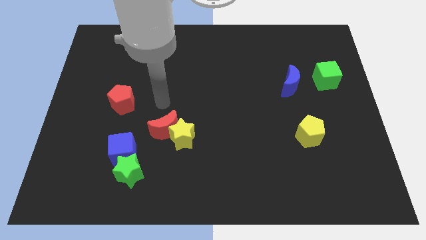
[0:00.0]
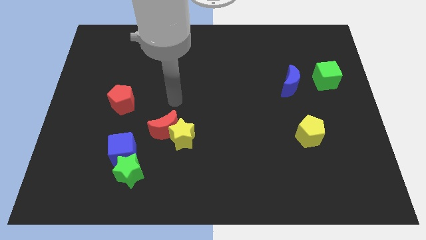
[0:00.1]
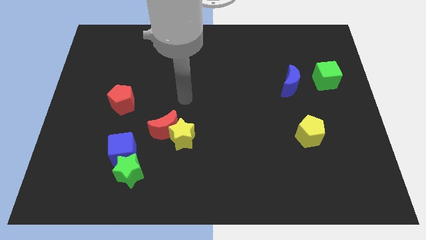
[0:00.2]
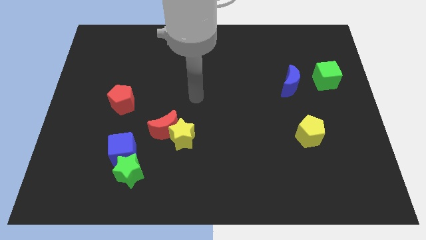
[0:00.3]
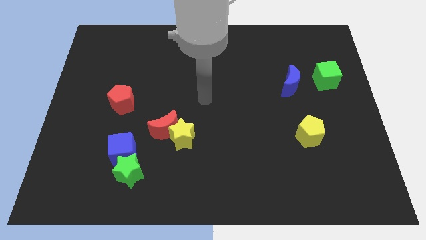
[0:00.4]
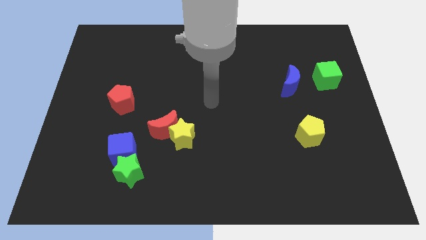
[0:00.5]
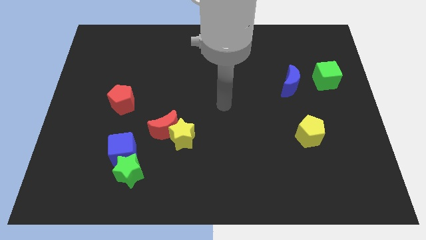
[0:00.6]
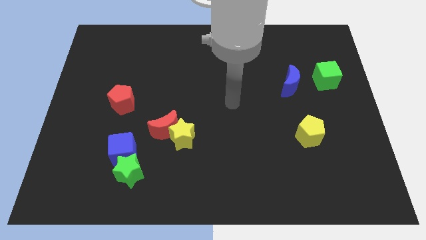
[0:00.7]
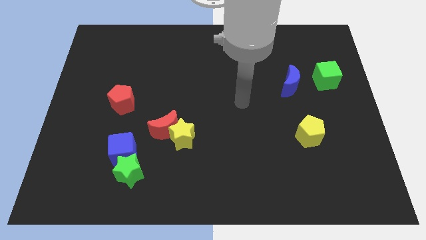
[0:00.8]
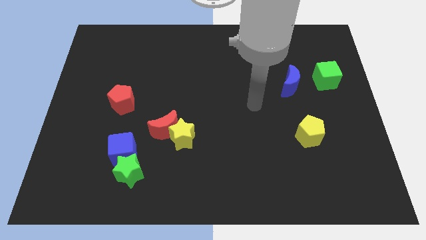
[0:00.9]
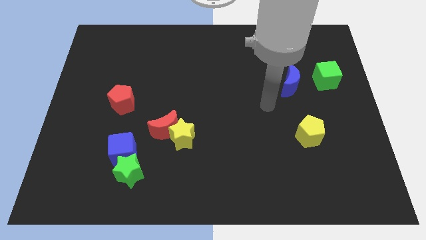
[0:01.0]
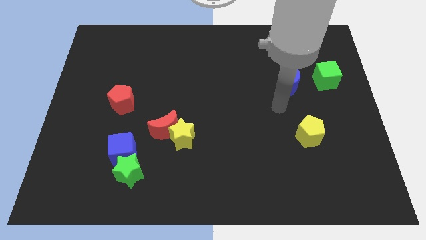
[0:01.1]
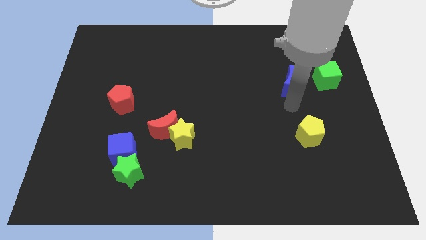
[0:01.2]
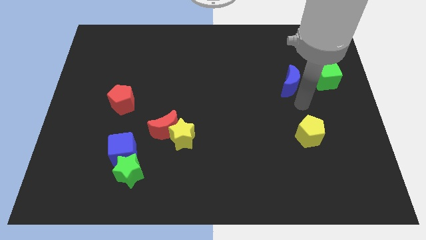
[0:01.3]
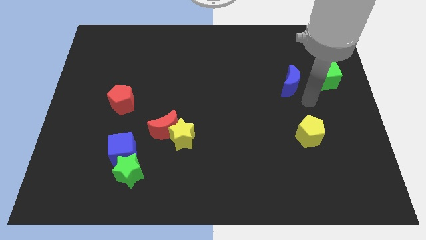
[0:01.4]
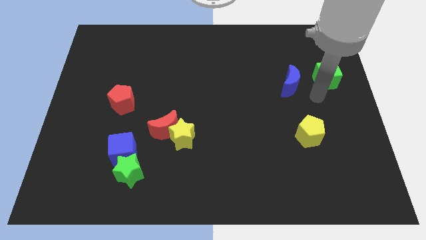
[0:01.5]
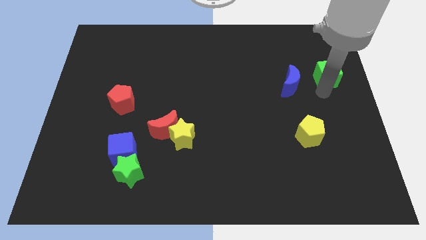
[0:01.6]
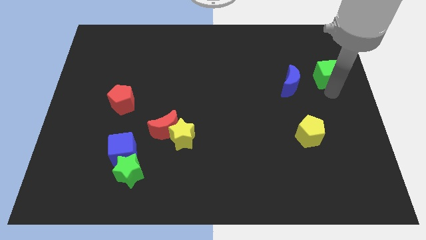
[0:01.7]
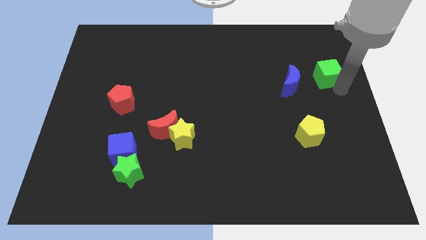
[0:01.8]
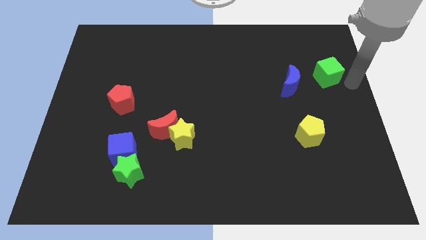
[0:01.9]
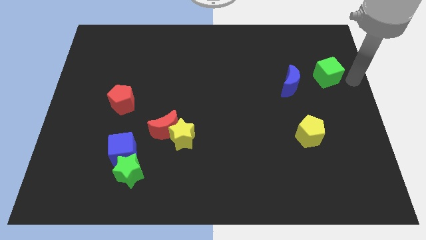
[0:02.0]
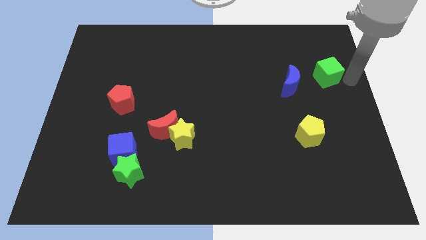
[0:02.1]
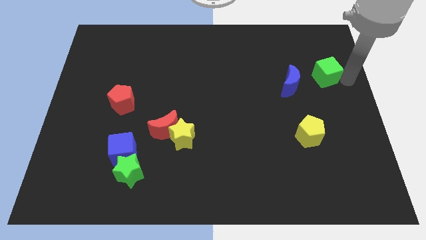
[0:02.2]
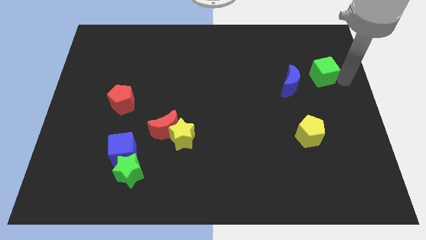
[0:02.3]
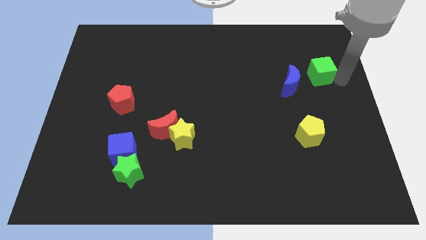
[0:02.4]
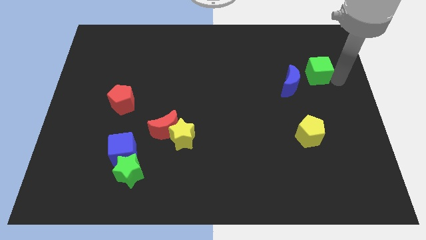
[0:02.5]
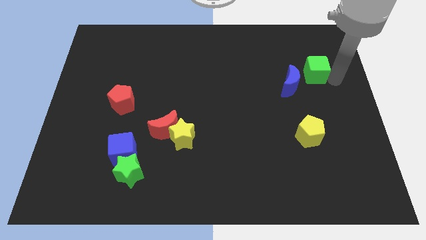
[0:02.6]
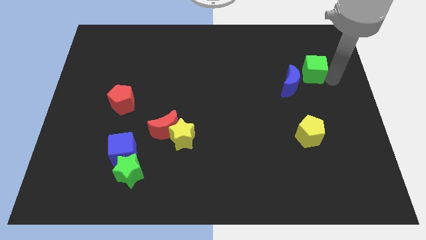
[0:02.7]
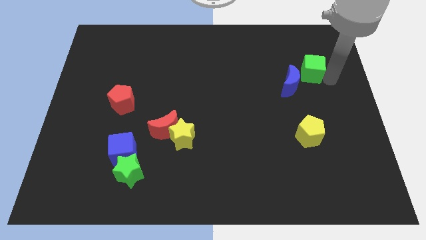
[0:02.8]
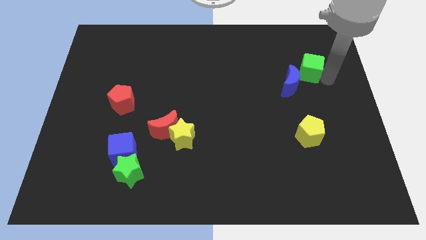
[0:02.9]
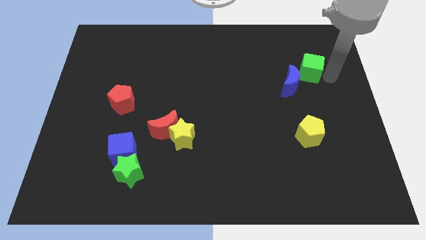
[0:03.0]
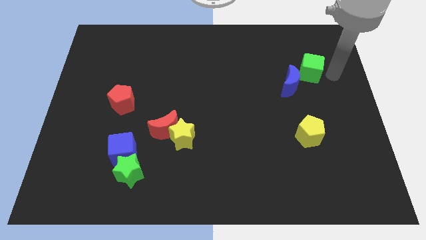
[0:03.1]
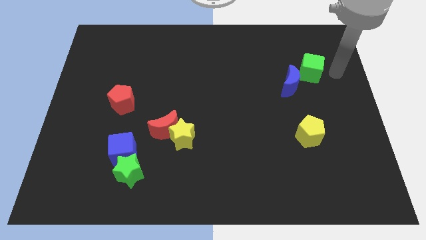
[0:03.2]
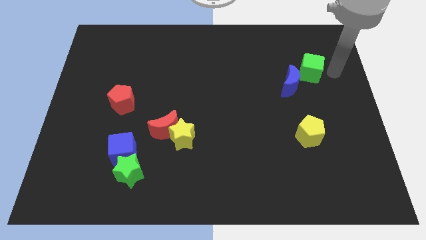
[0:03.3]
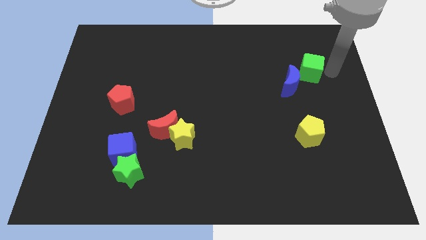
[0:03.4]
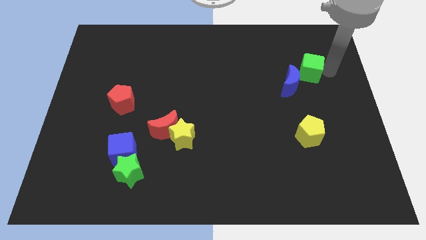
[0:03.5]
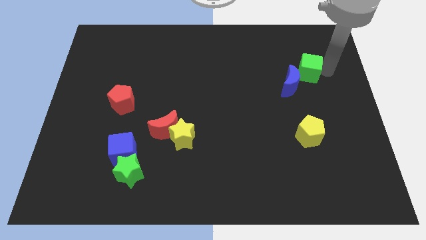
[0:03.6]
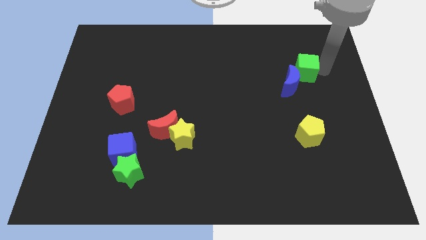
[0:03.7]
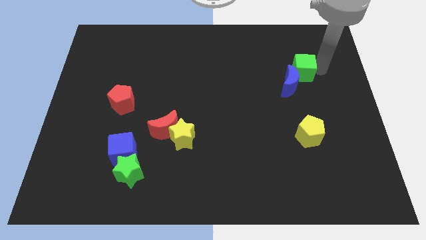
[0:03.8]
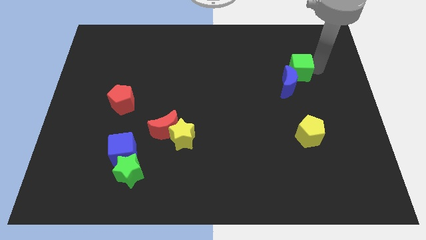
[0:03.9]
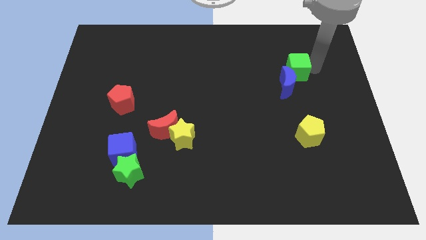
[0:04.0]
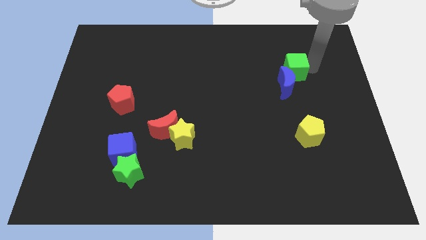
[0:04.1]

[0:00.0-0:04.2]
push the green cube slightly left

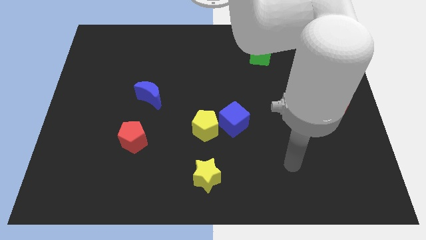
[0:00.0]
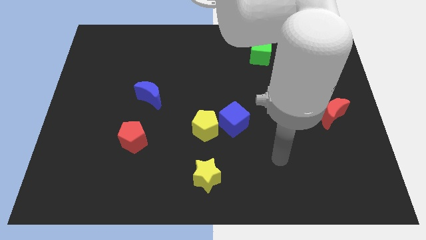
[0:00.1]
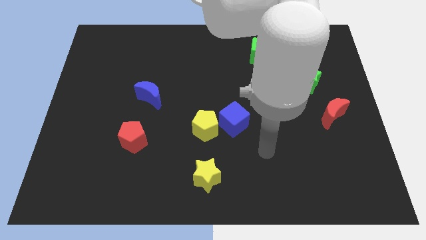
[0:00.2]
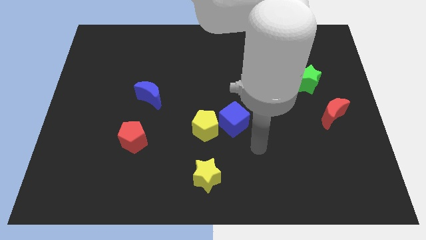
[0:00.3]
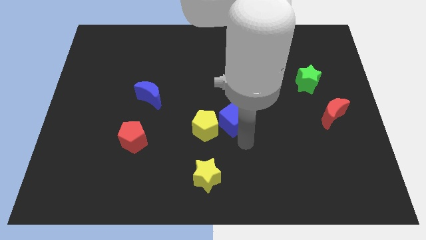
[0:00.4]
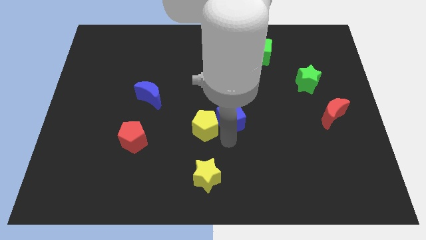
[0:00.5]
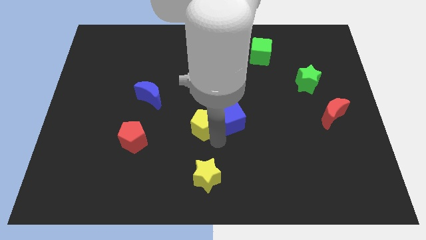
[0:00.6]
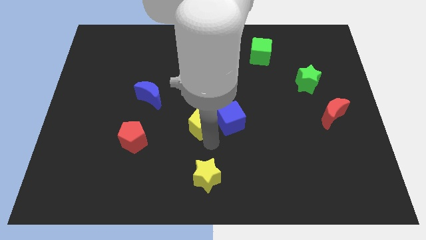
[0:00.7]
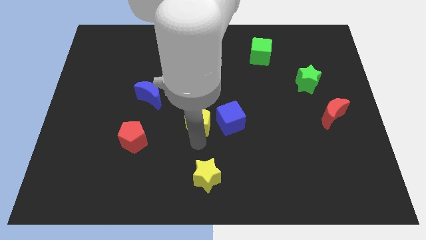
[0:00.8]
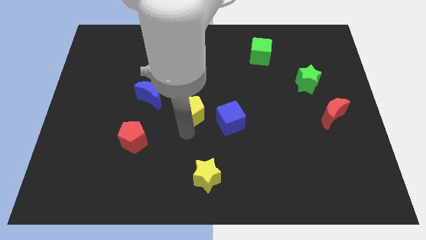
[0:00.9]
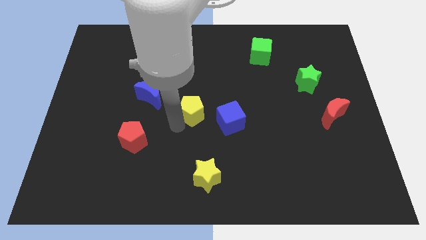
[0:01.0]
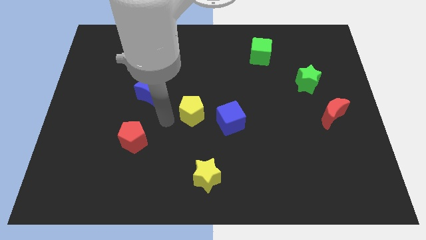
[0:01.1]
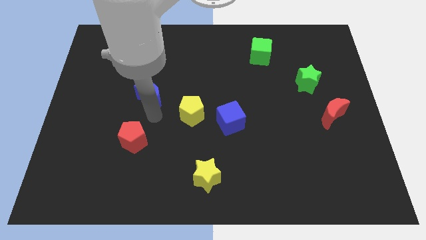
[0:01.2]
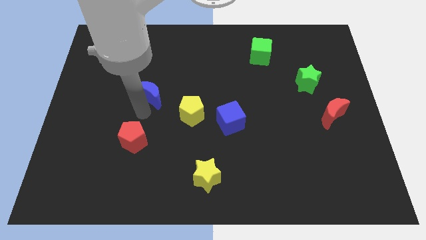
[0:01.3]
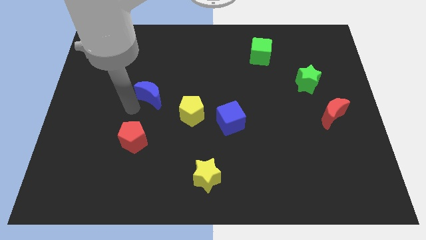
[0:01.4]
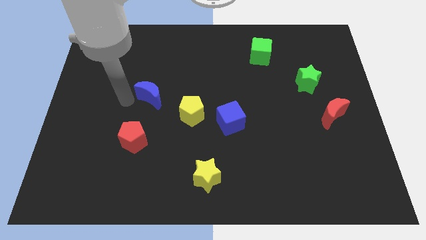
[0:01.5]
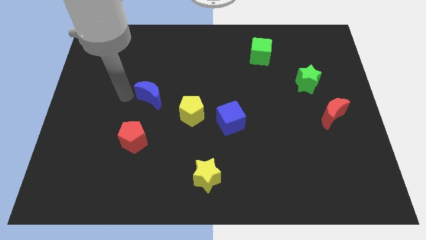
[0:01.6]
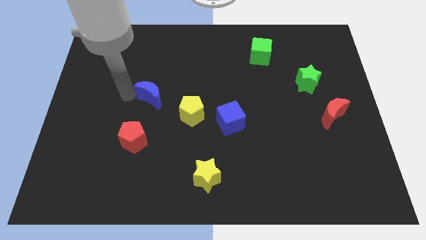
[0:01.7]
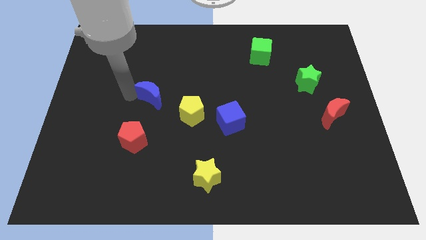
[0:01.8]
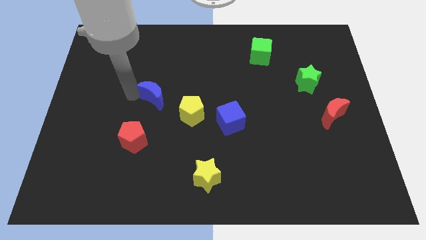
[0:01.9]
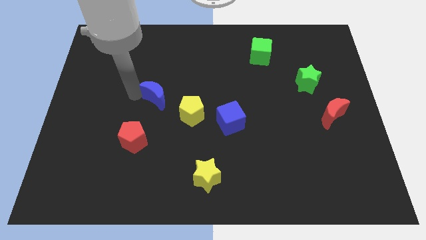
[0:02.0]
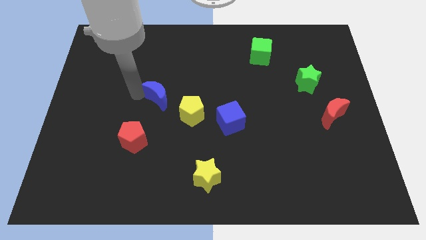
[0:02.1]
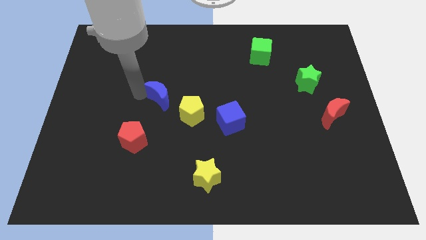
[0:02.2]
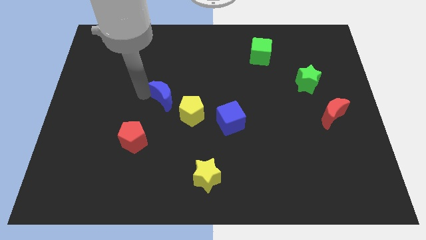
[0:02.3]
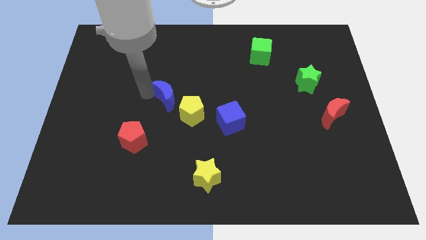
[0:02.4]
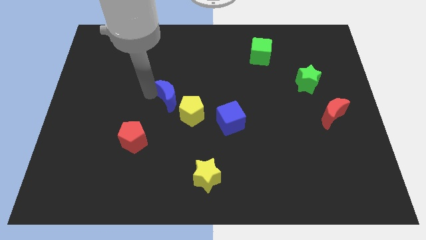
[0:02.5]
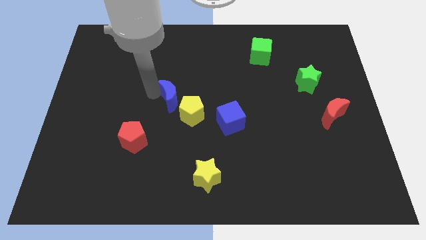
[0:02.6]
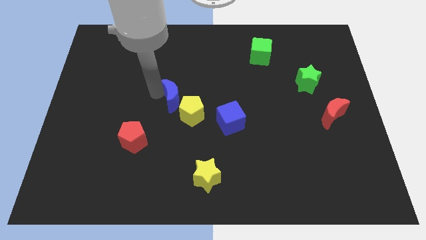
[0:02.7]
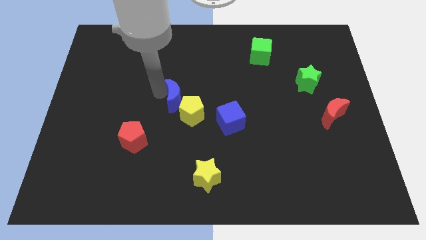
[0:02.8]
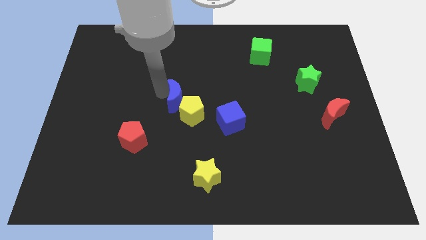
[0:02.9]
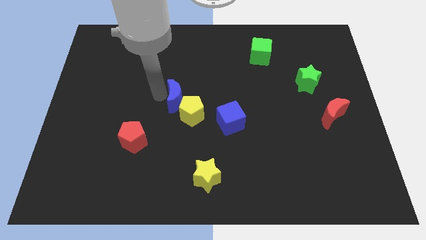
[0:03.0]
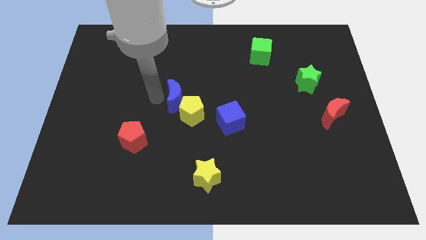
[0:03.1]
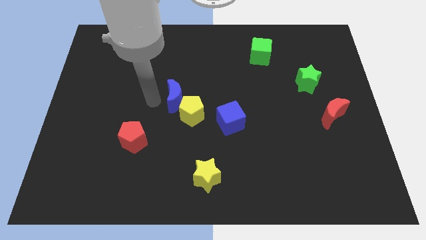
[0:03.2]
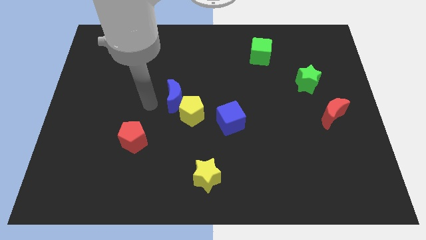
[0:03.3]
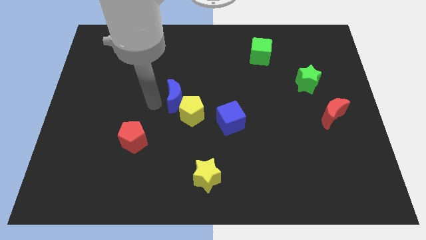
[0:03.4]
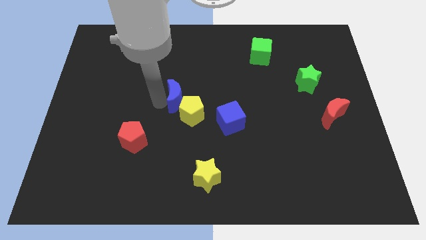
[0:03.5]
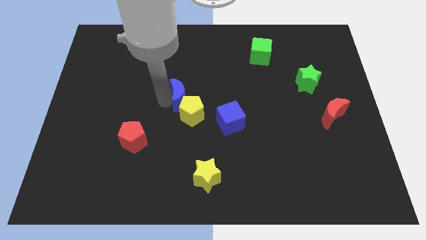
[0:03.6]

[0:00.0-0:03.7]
move the blue moon a little bit right
